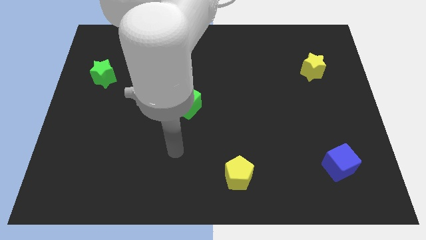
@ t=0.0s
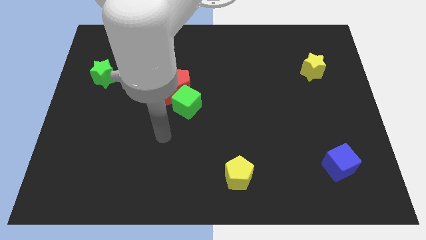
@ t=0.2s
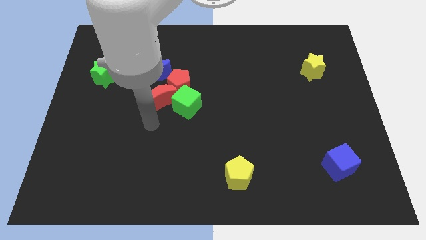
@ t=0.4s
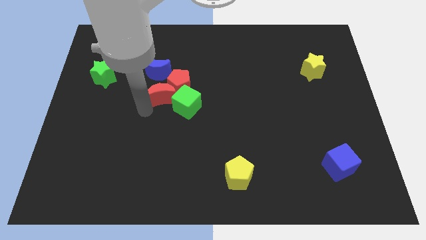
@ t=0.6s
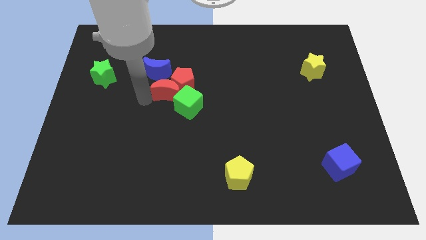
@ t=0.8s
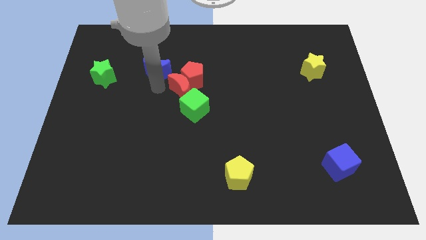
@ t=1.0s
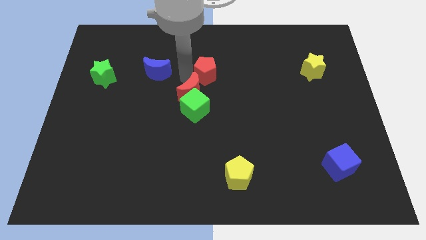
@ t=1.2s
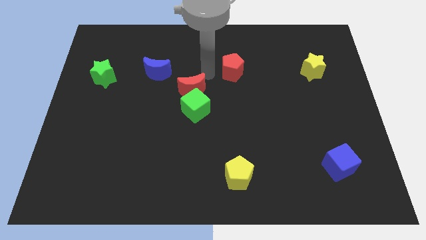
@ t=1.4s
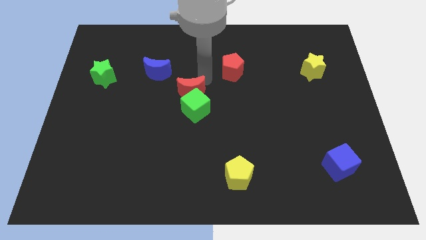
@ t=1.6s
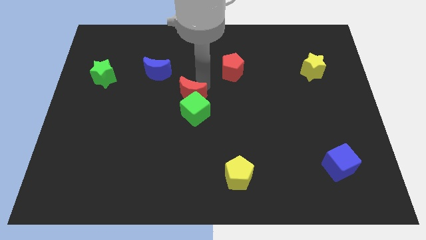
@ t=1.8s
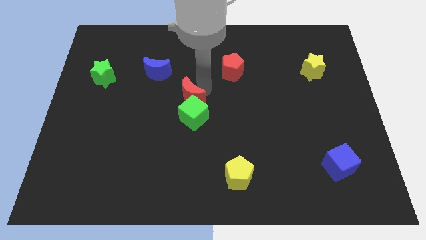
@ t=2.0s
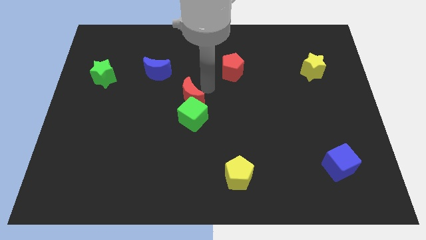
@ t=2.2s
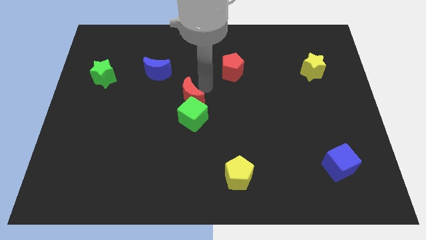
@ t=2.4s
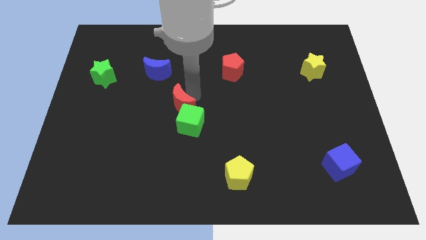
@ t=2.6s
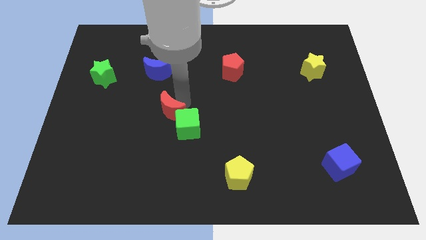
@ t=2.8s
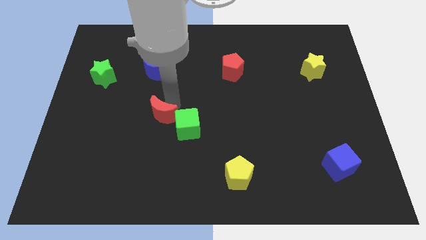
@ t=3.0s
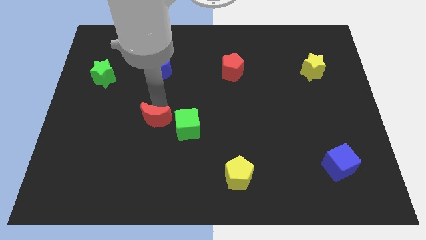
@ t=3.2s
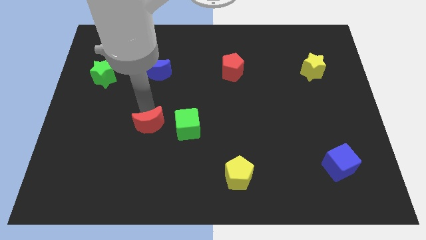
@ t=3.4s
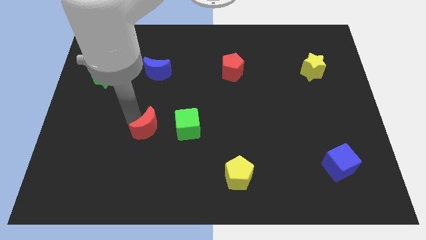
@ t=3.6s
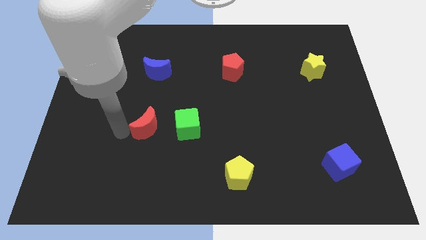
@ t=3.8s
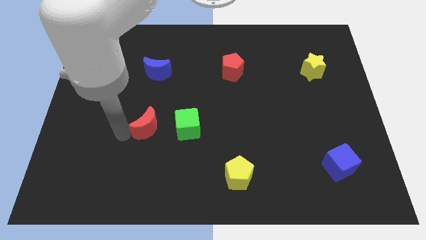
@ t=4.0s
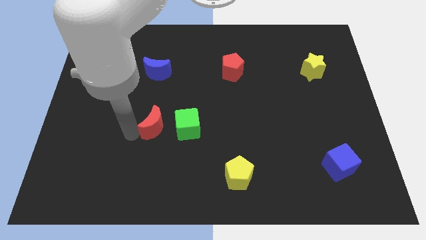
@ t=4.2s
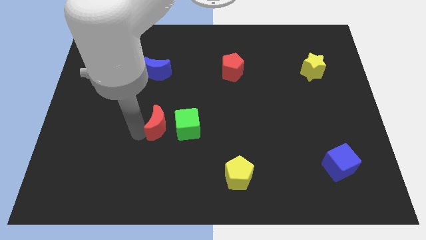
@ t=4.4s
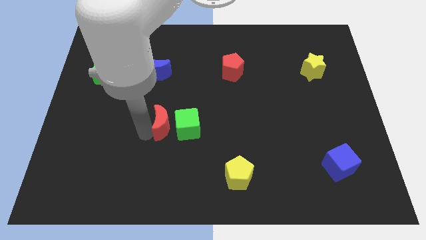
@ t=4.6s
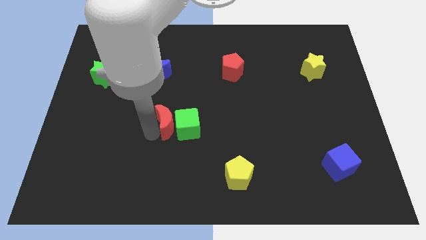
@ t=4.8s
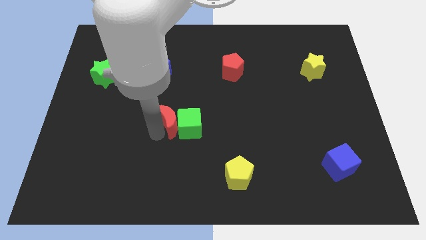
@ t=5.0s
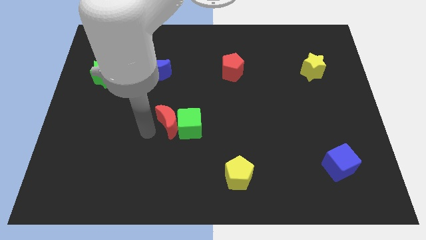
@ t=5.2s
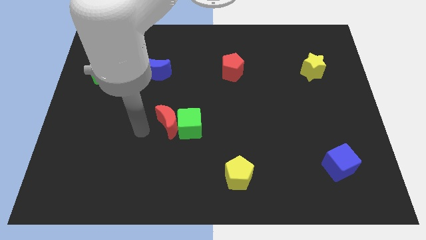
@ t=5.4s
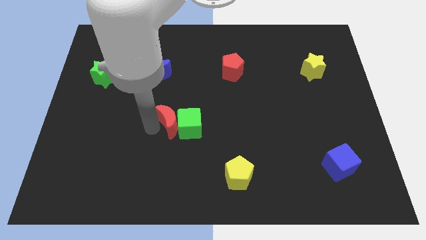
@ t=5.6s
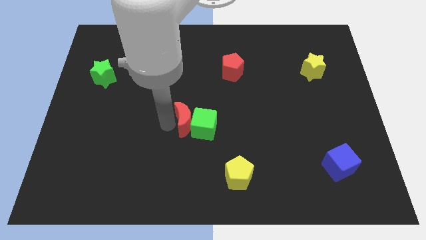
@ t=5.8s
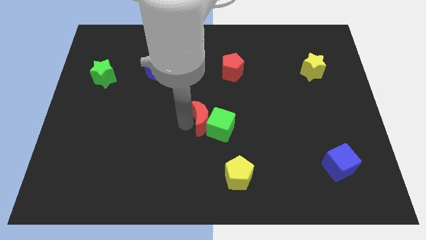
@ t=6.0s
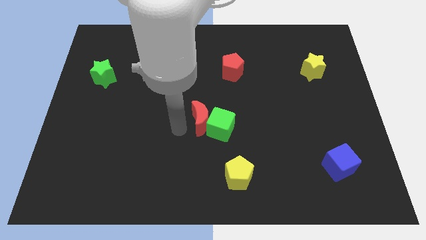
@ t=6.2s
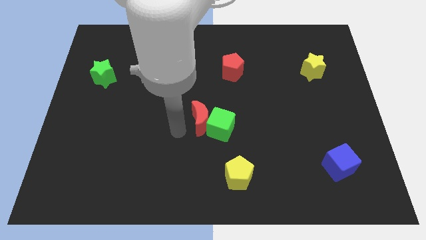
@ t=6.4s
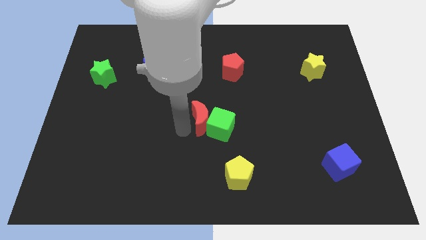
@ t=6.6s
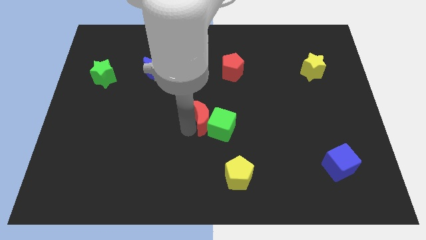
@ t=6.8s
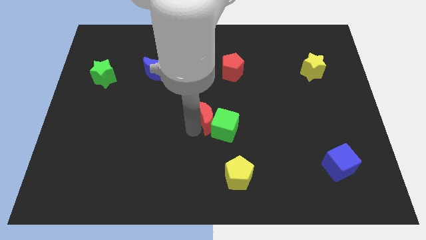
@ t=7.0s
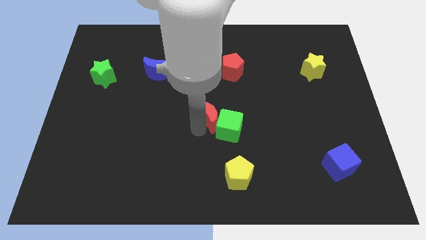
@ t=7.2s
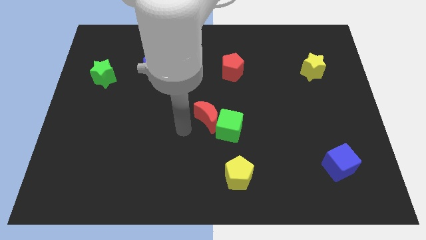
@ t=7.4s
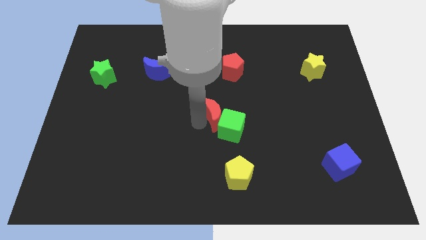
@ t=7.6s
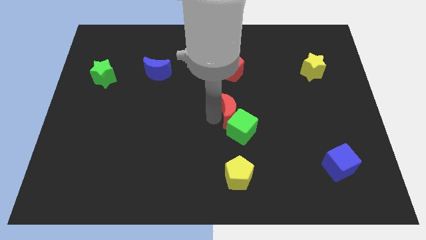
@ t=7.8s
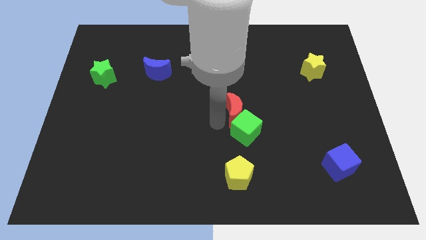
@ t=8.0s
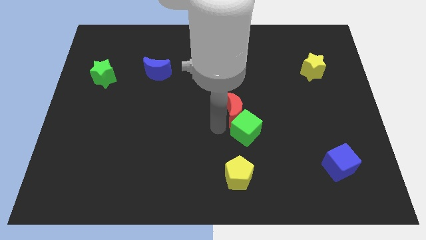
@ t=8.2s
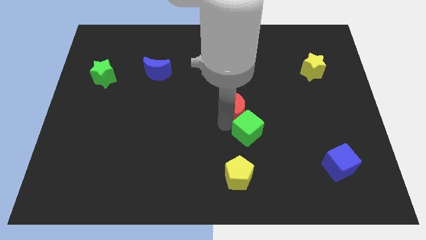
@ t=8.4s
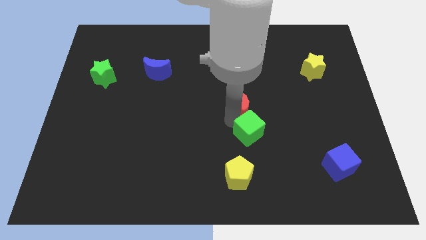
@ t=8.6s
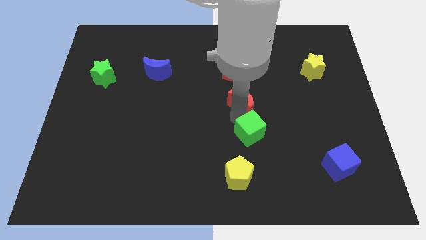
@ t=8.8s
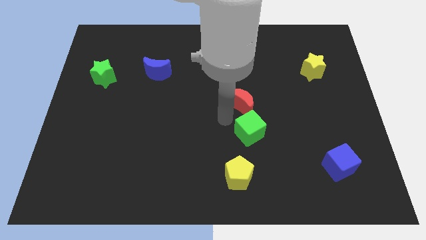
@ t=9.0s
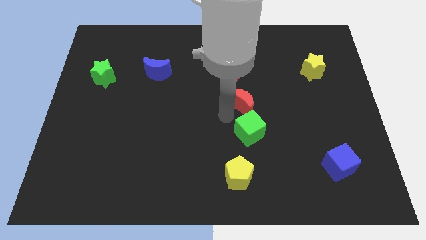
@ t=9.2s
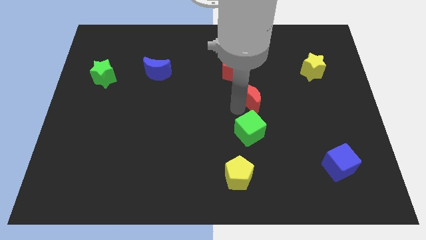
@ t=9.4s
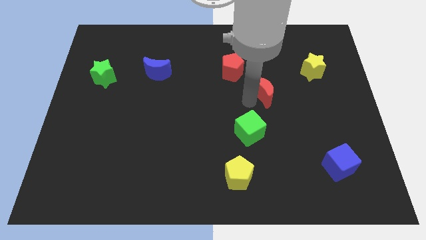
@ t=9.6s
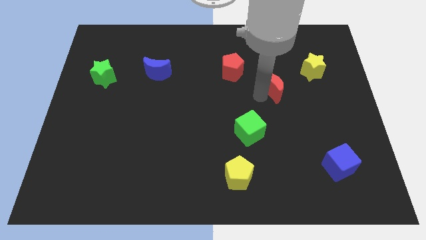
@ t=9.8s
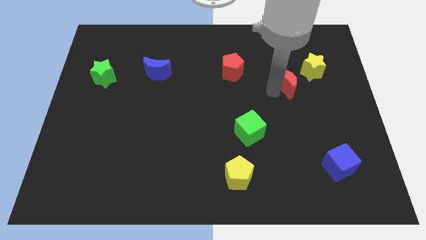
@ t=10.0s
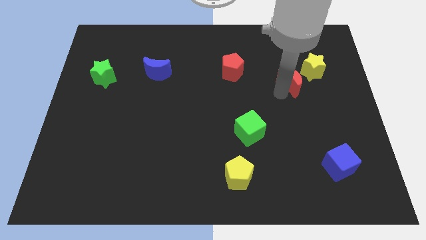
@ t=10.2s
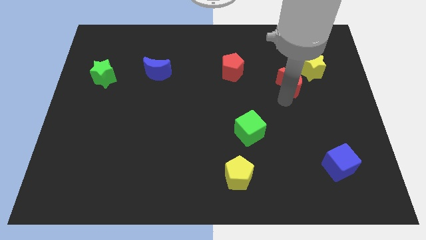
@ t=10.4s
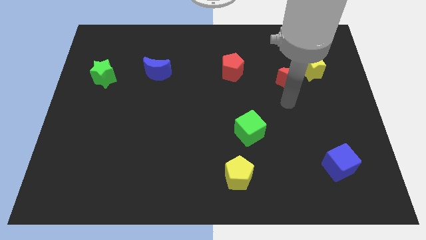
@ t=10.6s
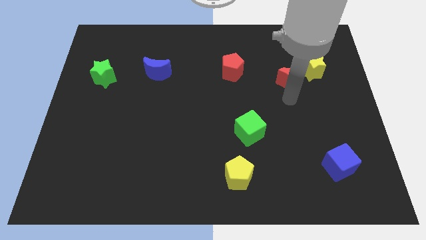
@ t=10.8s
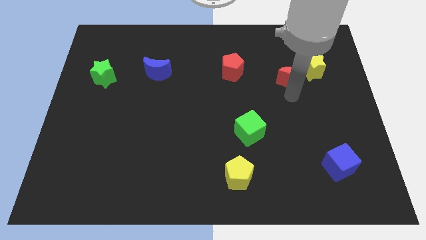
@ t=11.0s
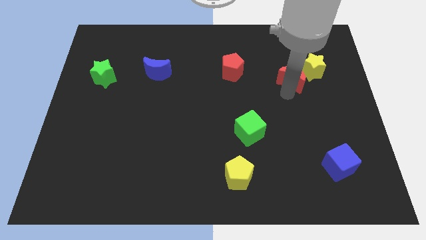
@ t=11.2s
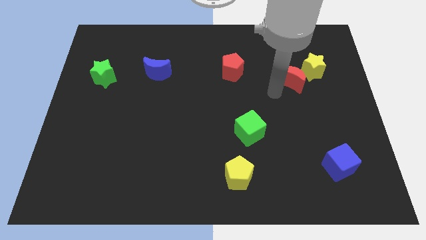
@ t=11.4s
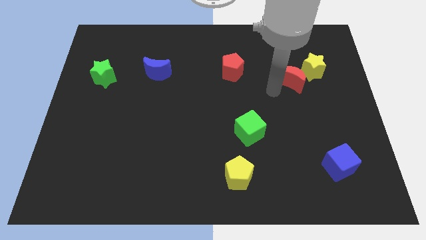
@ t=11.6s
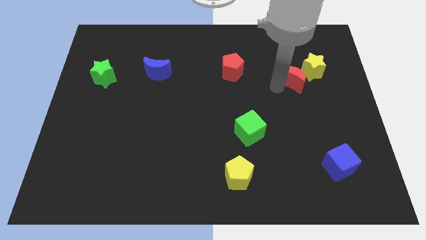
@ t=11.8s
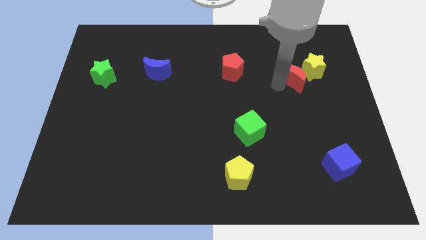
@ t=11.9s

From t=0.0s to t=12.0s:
move the red moon to the yellow star
